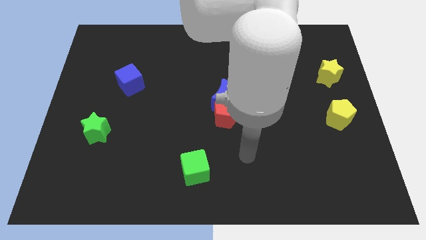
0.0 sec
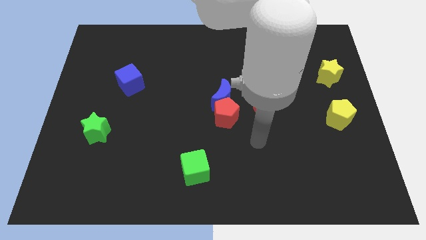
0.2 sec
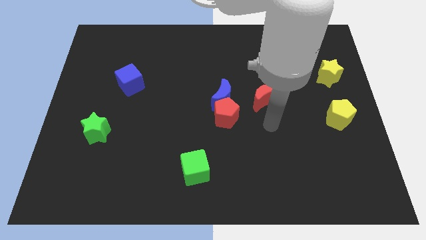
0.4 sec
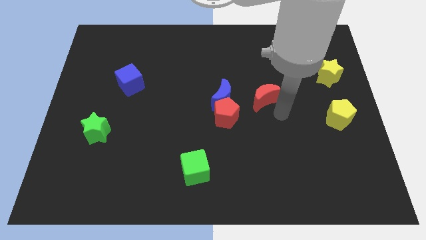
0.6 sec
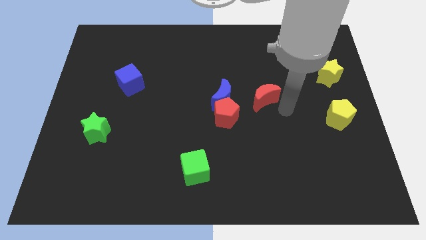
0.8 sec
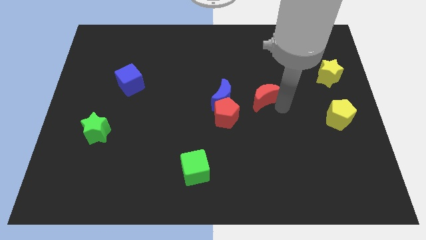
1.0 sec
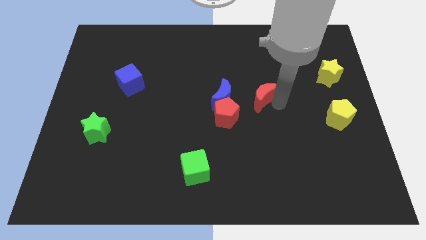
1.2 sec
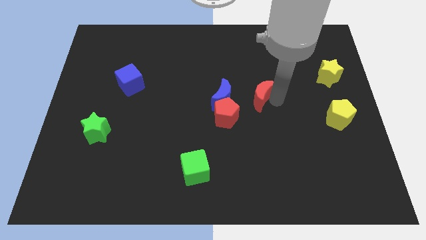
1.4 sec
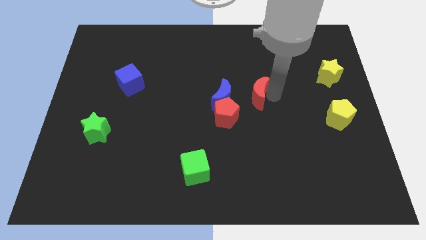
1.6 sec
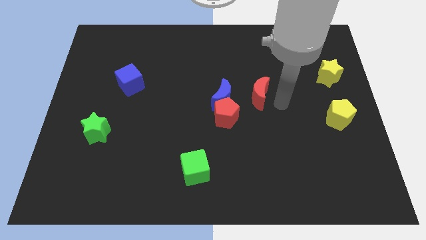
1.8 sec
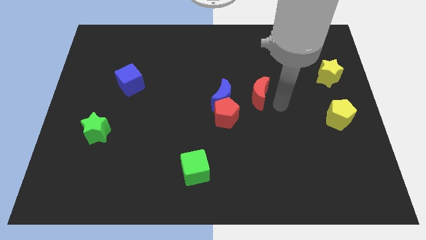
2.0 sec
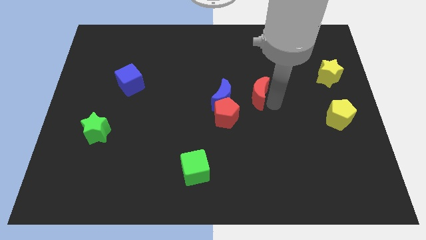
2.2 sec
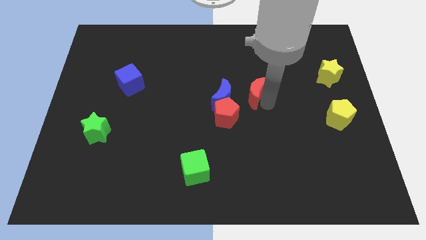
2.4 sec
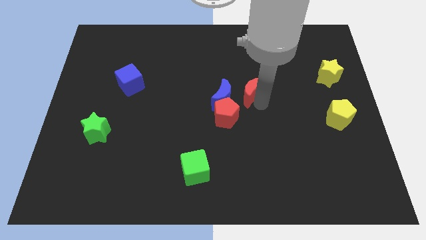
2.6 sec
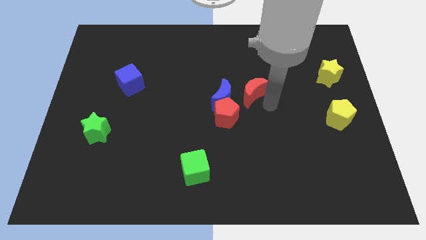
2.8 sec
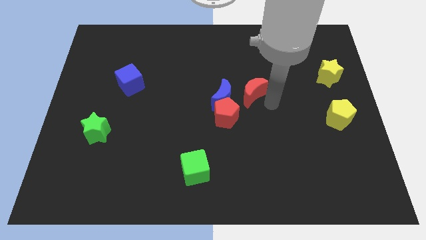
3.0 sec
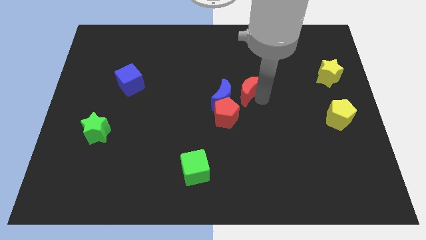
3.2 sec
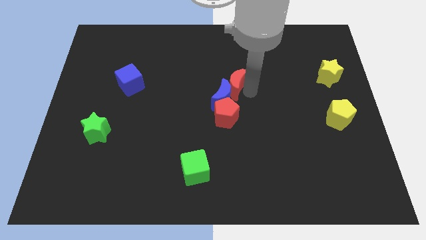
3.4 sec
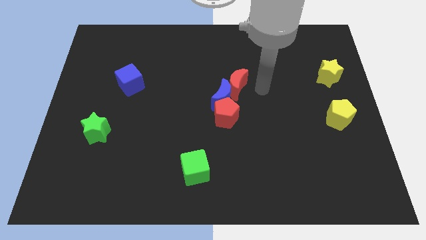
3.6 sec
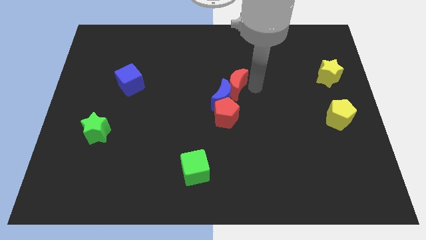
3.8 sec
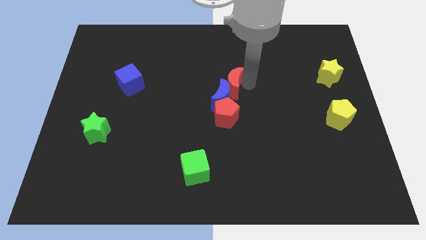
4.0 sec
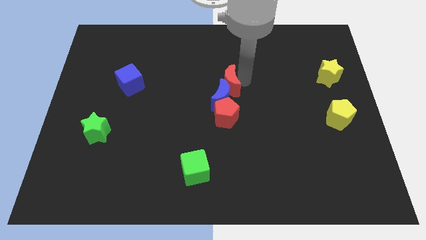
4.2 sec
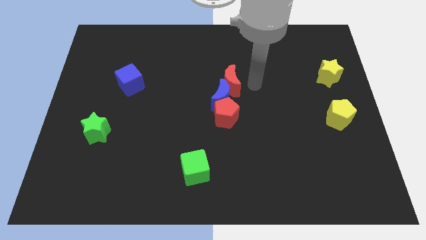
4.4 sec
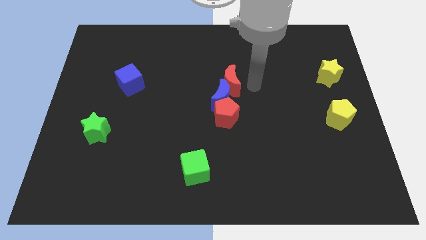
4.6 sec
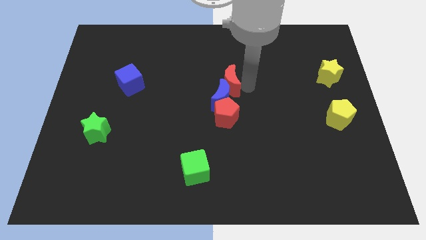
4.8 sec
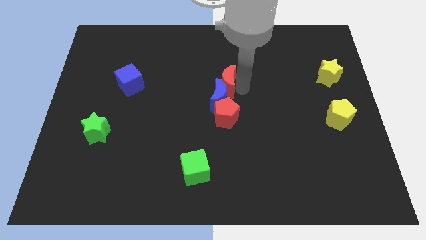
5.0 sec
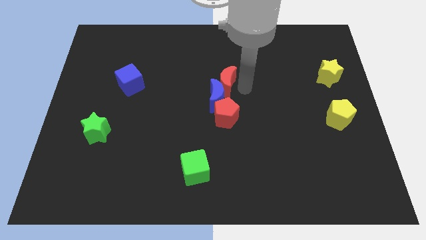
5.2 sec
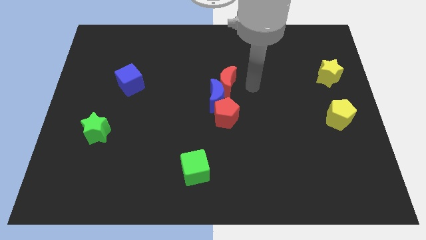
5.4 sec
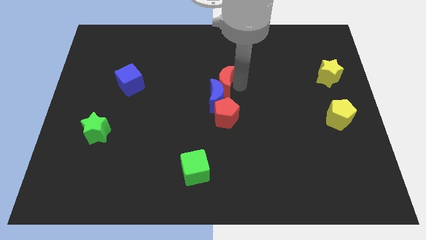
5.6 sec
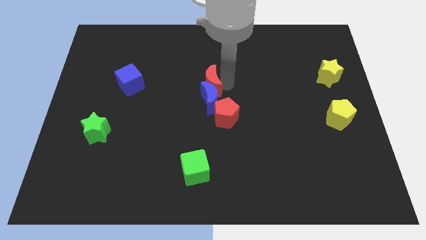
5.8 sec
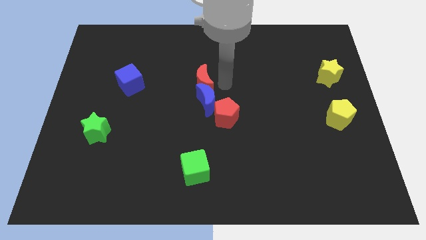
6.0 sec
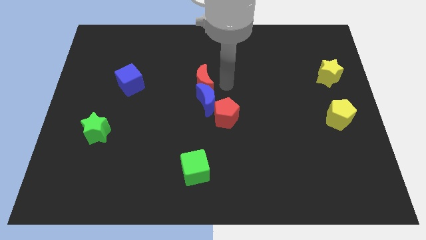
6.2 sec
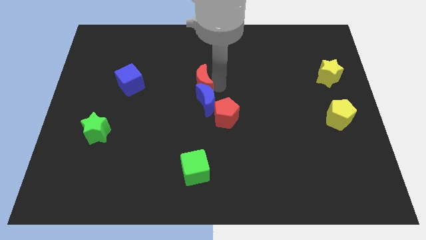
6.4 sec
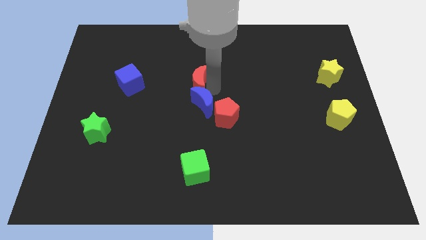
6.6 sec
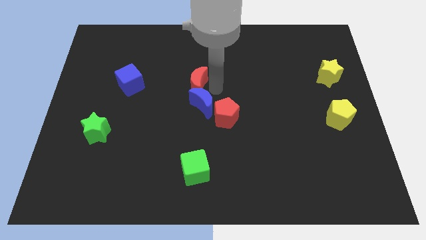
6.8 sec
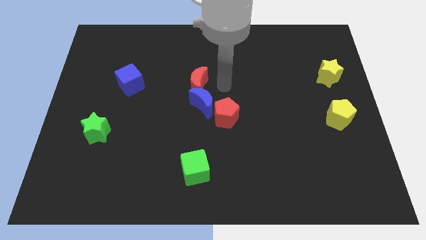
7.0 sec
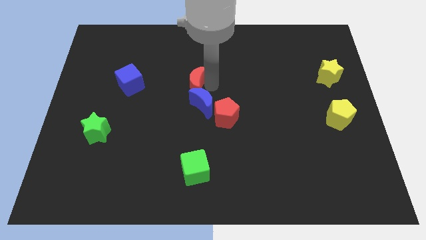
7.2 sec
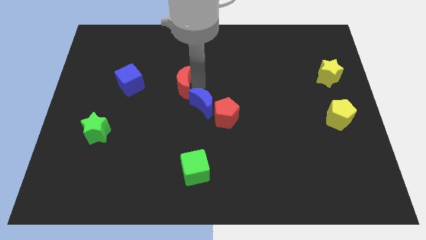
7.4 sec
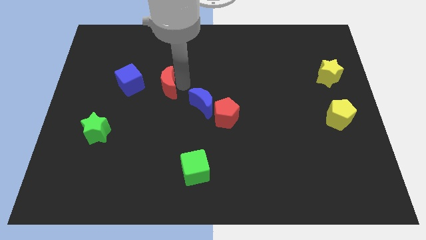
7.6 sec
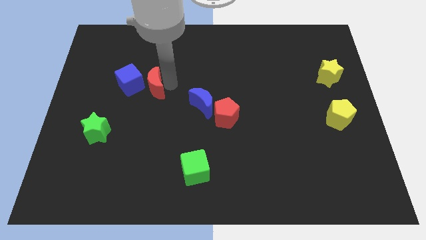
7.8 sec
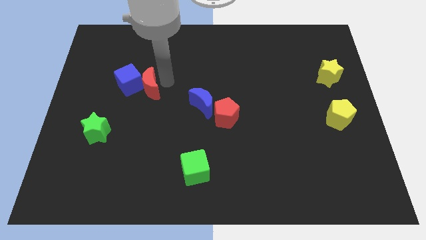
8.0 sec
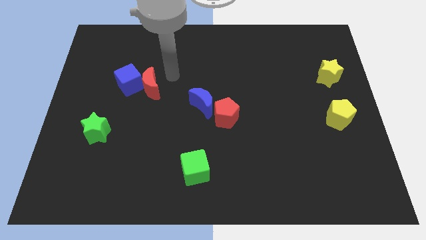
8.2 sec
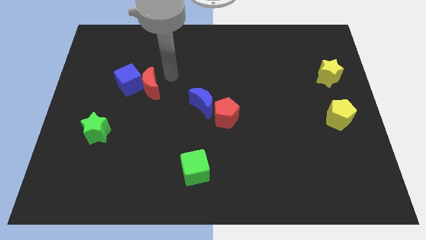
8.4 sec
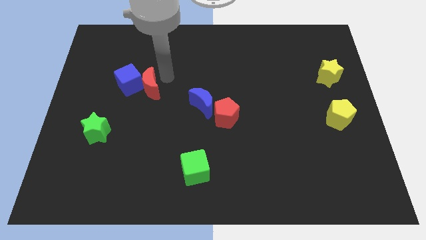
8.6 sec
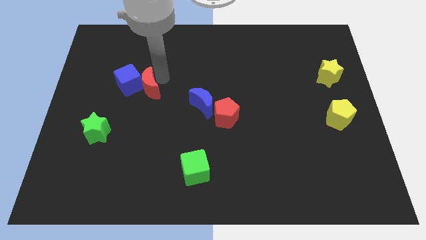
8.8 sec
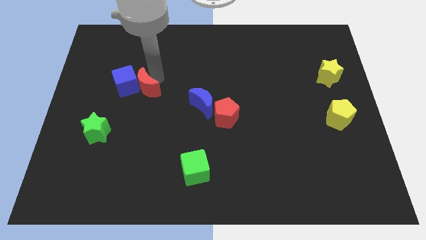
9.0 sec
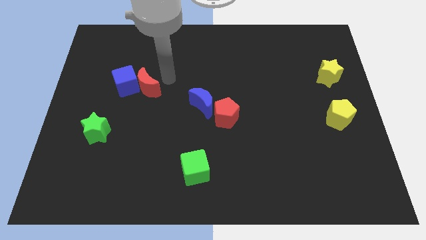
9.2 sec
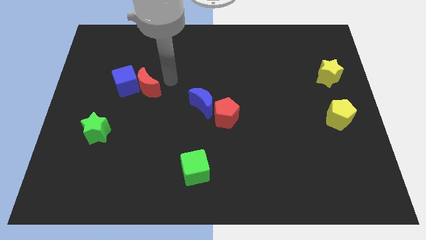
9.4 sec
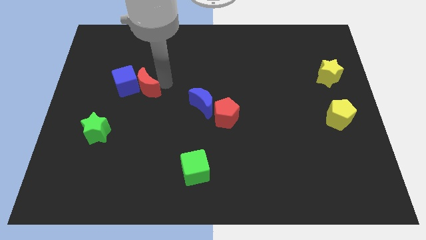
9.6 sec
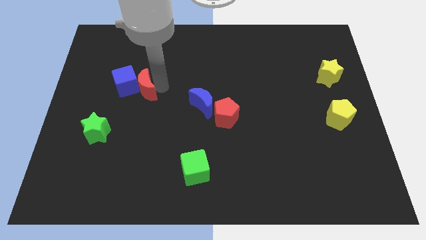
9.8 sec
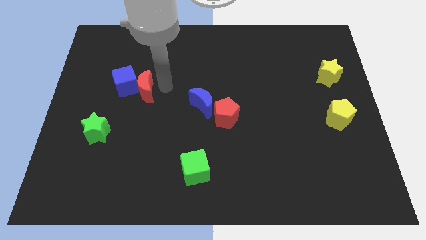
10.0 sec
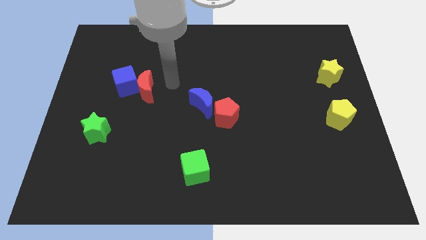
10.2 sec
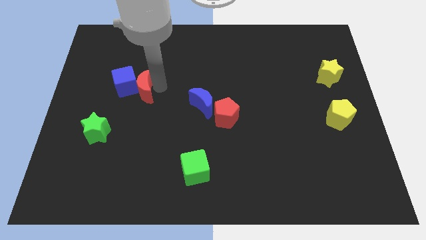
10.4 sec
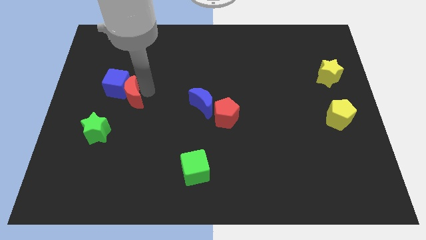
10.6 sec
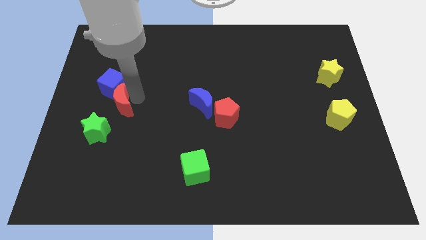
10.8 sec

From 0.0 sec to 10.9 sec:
push the red moon to the top of the green star
